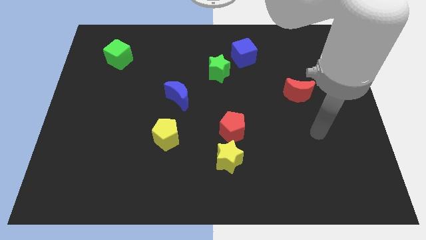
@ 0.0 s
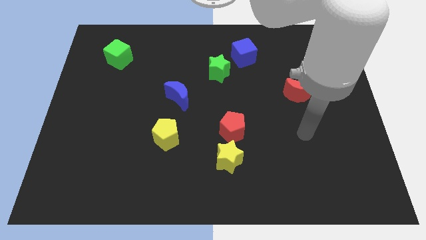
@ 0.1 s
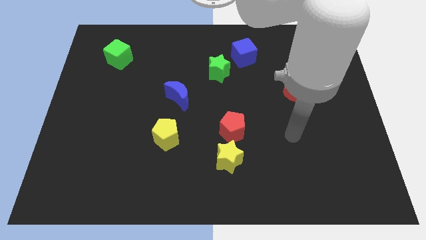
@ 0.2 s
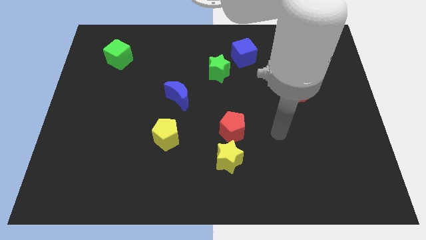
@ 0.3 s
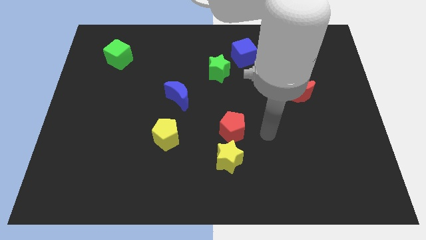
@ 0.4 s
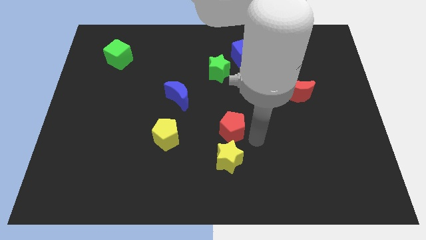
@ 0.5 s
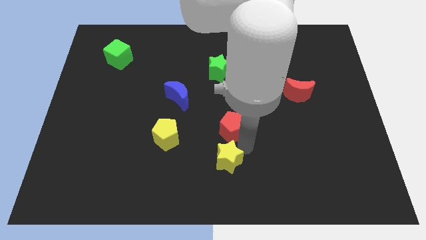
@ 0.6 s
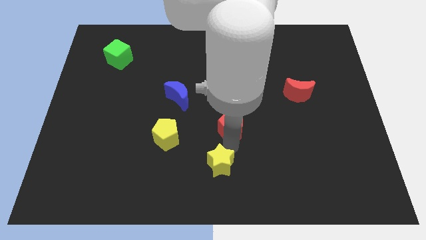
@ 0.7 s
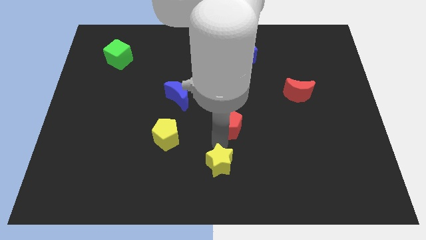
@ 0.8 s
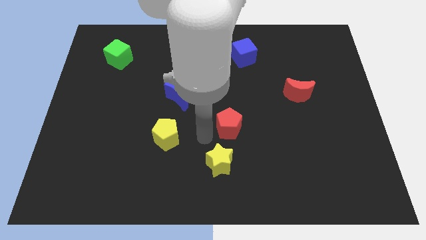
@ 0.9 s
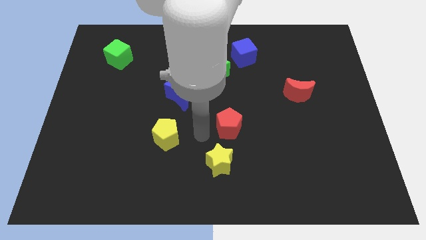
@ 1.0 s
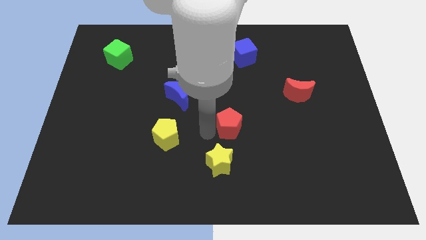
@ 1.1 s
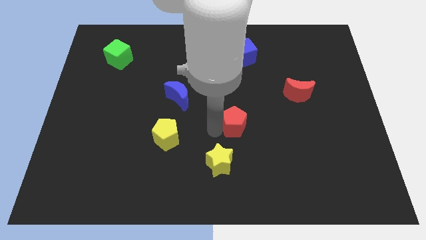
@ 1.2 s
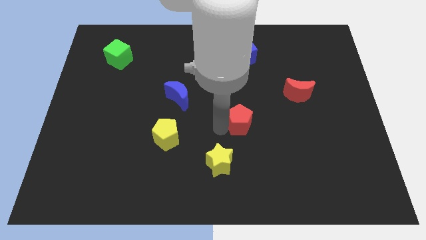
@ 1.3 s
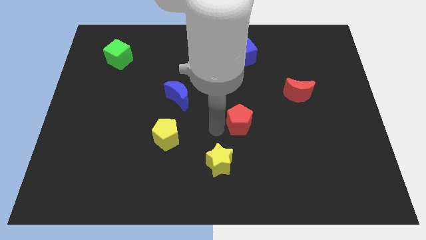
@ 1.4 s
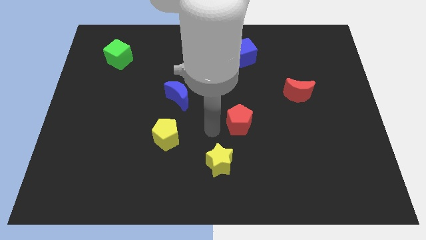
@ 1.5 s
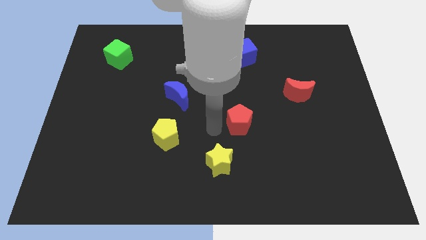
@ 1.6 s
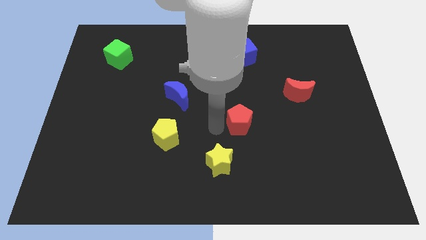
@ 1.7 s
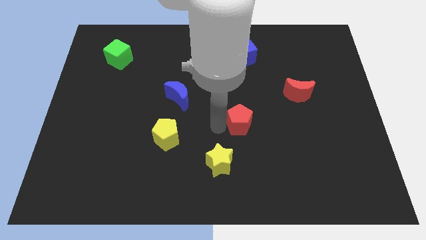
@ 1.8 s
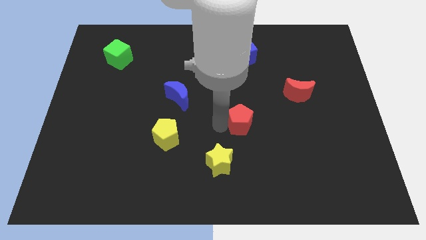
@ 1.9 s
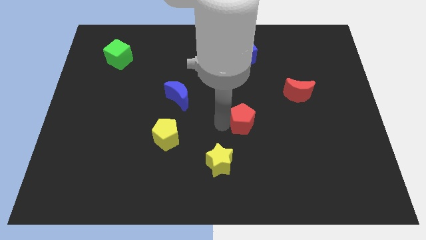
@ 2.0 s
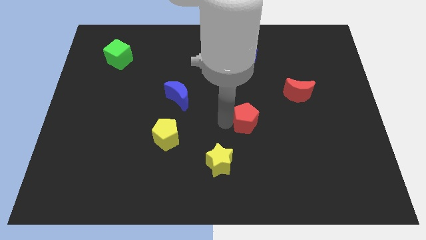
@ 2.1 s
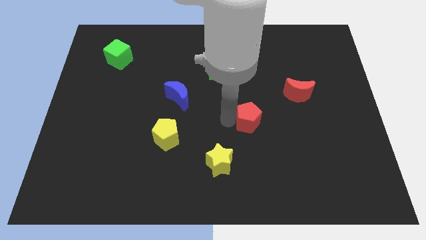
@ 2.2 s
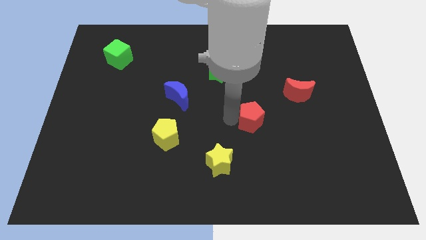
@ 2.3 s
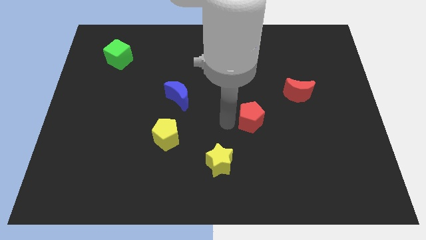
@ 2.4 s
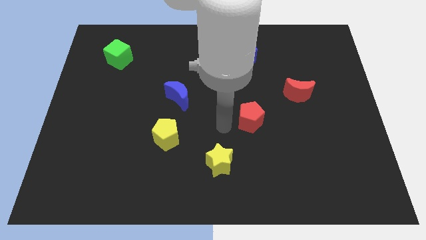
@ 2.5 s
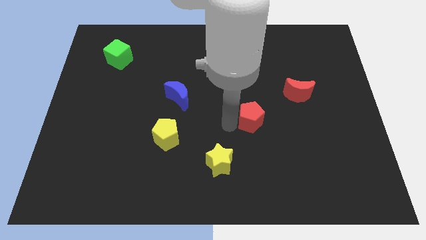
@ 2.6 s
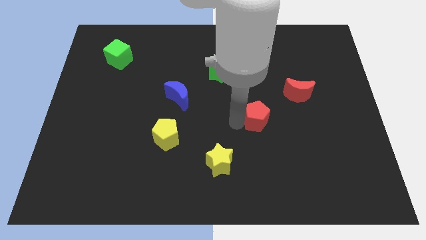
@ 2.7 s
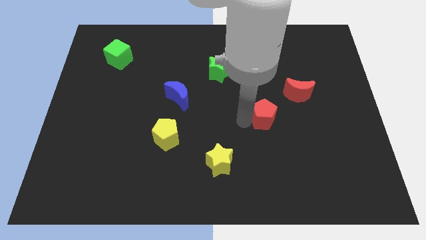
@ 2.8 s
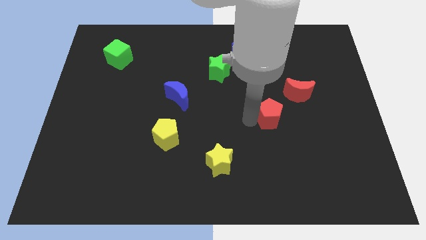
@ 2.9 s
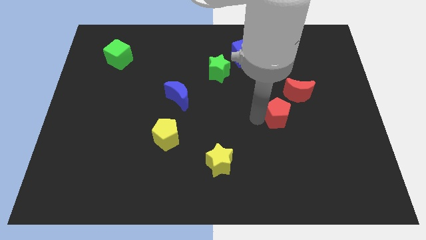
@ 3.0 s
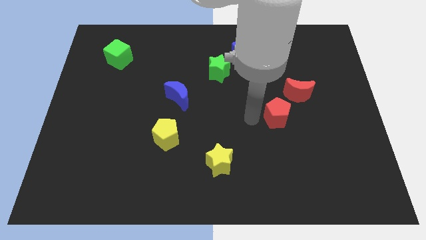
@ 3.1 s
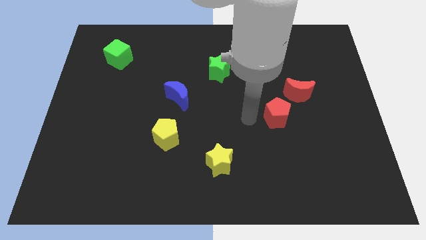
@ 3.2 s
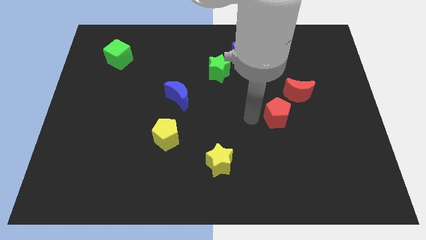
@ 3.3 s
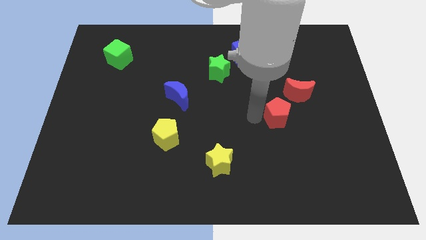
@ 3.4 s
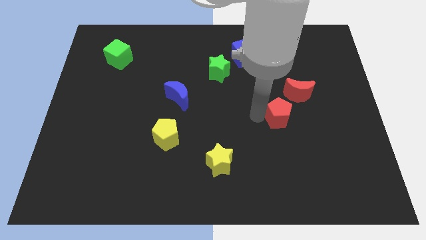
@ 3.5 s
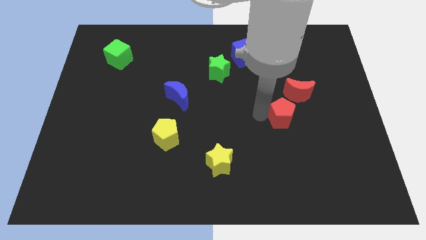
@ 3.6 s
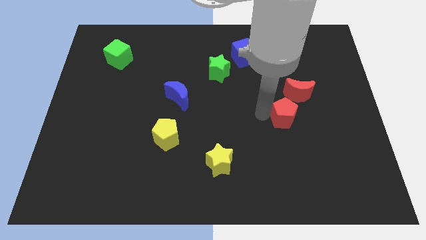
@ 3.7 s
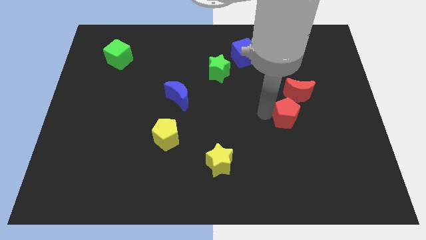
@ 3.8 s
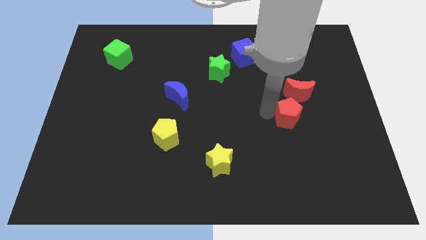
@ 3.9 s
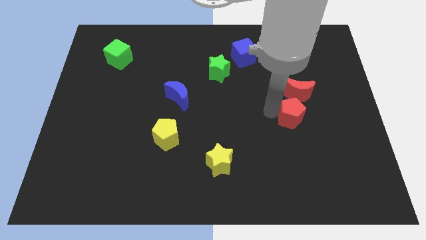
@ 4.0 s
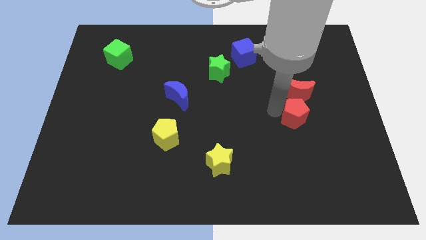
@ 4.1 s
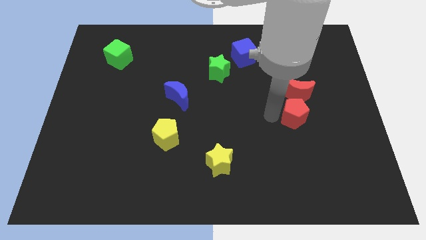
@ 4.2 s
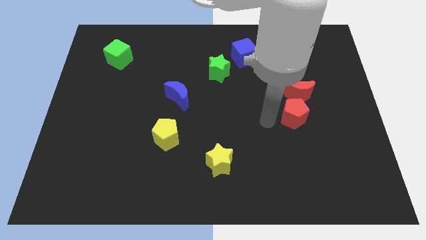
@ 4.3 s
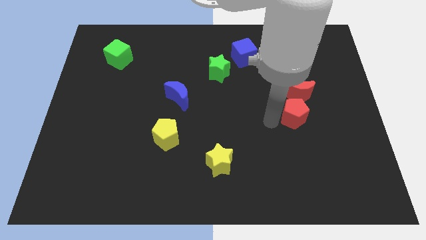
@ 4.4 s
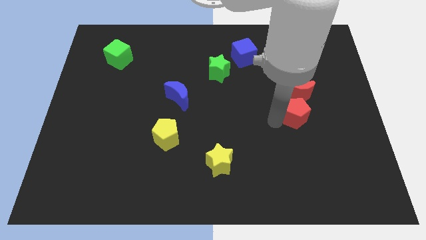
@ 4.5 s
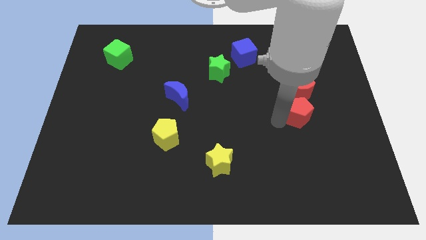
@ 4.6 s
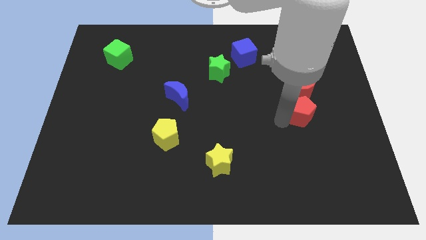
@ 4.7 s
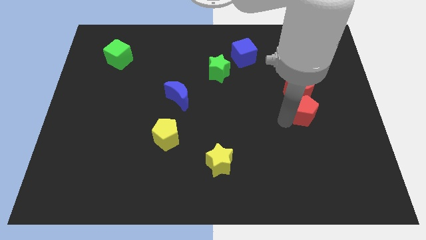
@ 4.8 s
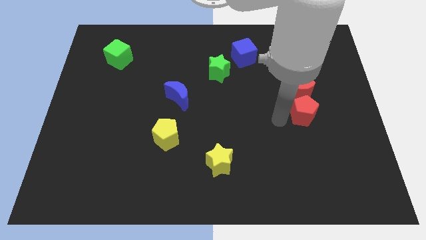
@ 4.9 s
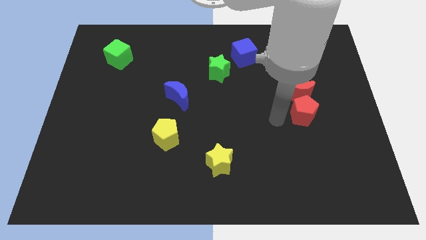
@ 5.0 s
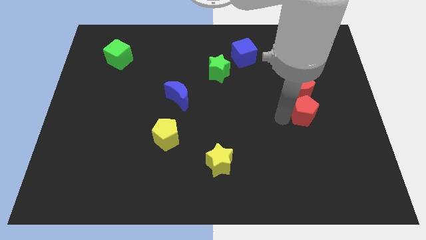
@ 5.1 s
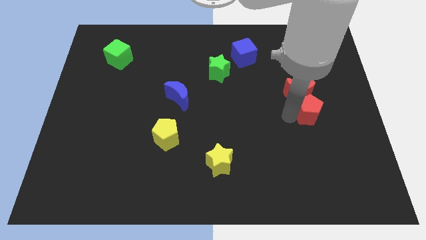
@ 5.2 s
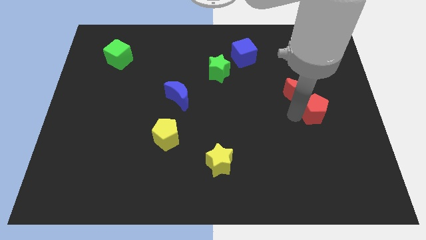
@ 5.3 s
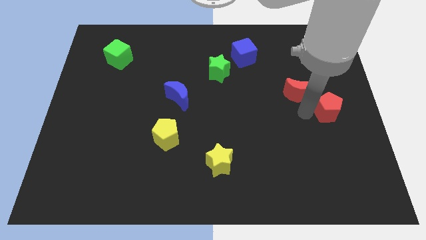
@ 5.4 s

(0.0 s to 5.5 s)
move the red pentagon to the right side of the board
